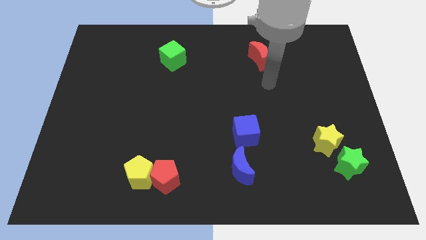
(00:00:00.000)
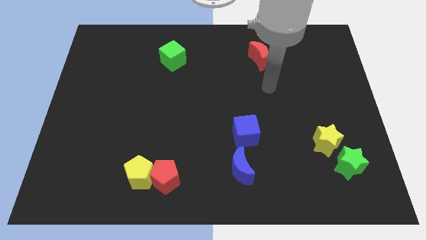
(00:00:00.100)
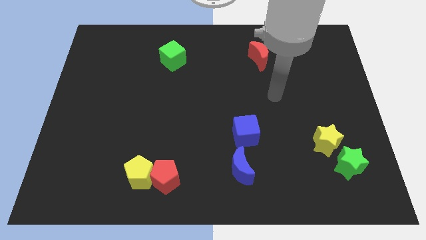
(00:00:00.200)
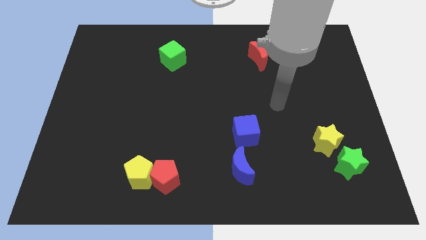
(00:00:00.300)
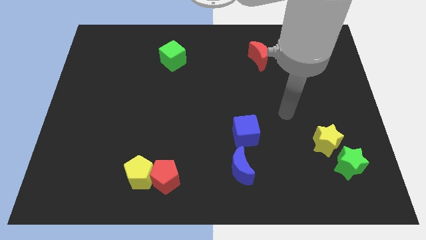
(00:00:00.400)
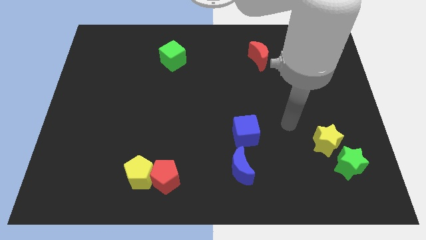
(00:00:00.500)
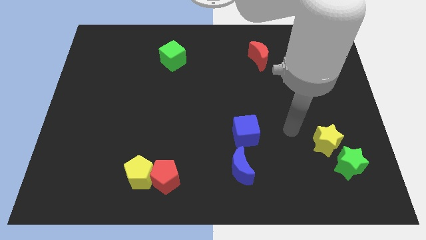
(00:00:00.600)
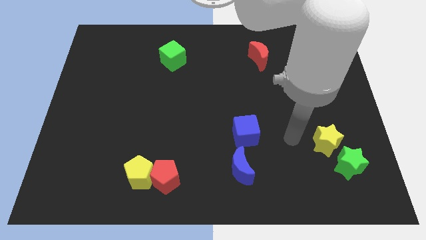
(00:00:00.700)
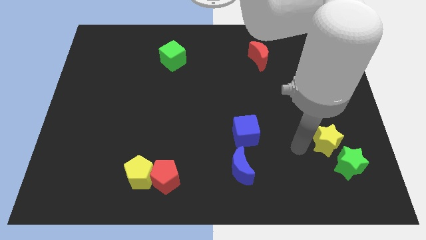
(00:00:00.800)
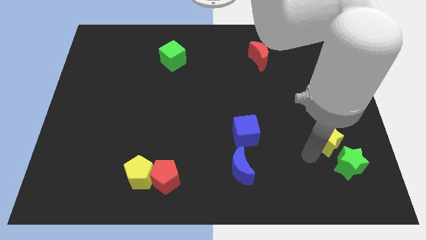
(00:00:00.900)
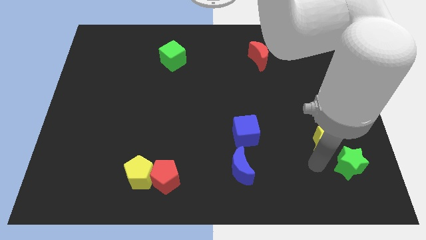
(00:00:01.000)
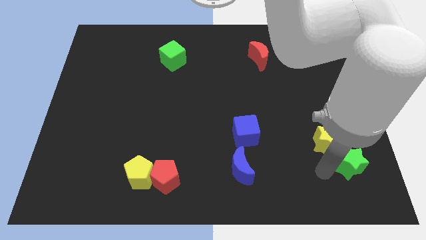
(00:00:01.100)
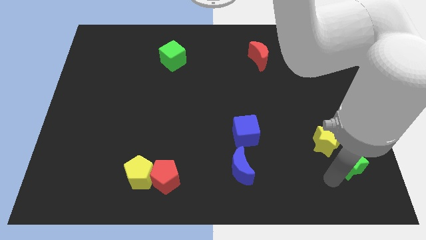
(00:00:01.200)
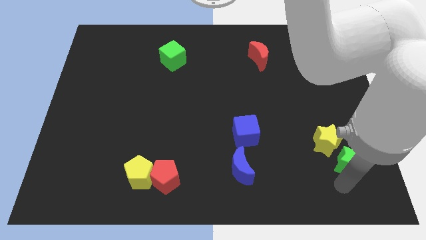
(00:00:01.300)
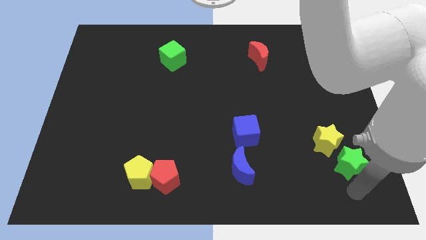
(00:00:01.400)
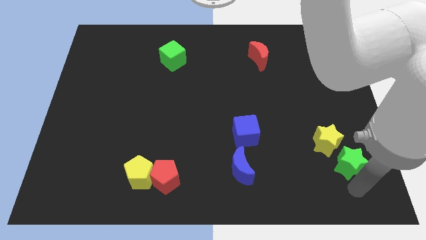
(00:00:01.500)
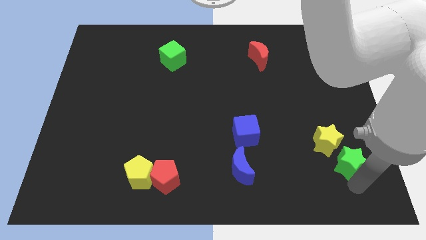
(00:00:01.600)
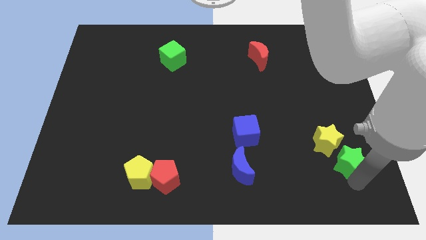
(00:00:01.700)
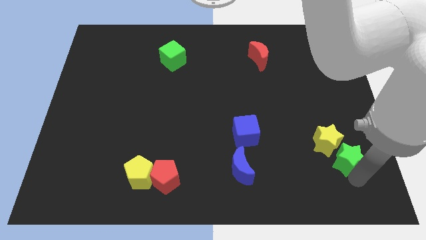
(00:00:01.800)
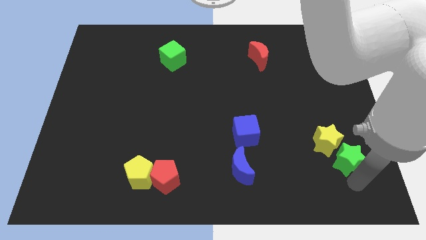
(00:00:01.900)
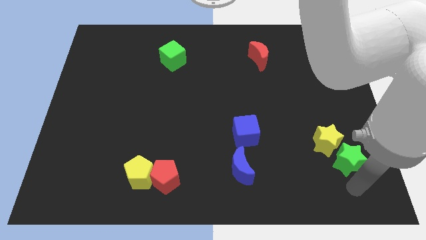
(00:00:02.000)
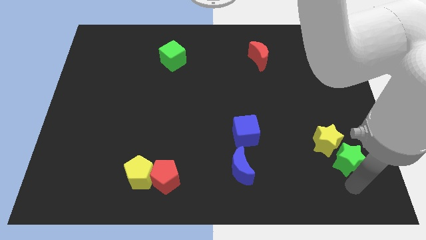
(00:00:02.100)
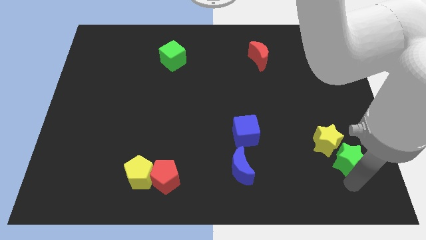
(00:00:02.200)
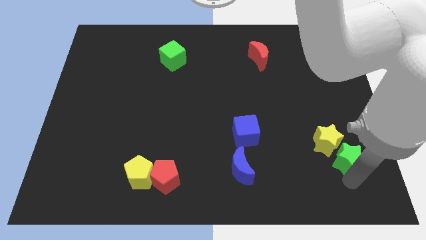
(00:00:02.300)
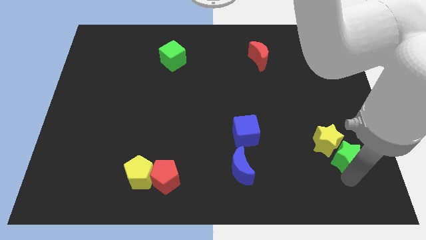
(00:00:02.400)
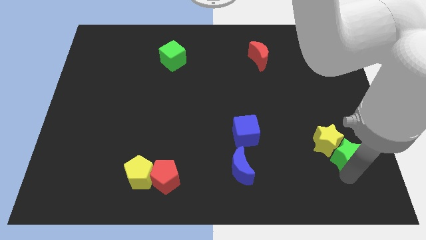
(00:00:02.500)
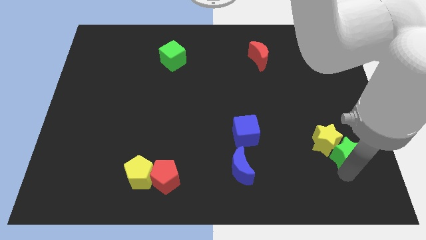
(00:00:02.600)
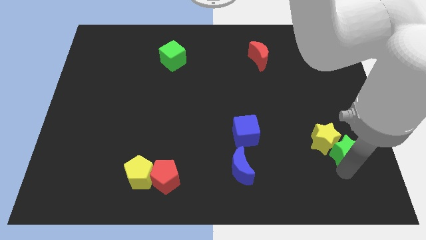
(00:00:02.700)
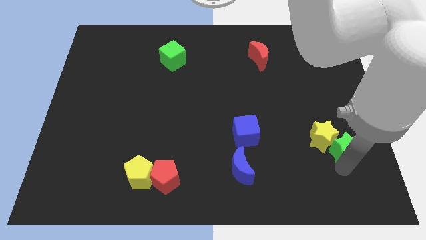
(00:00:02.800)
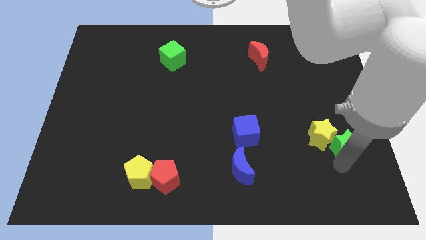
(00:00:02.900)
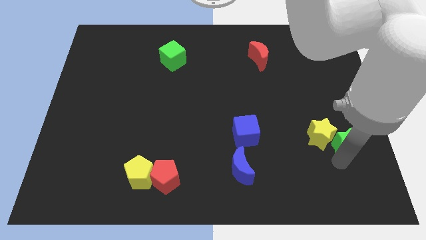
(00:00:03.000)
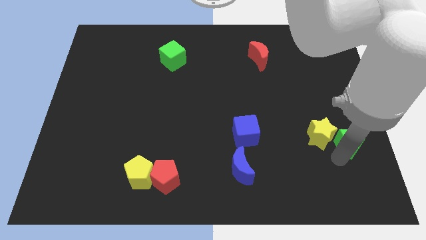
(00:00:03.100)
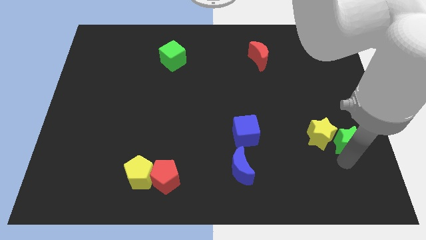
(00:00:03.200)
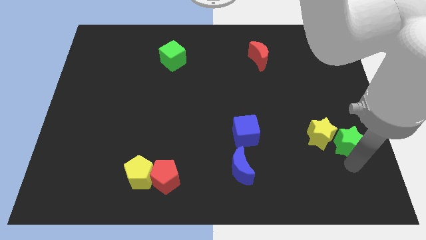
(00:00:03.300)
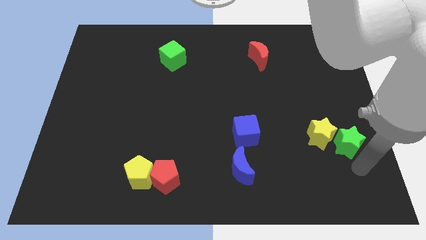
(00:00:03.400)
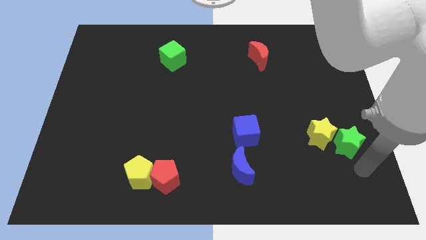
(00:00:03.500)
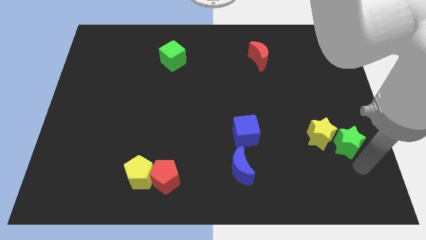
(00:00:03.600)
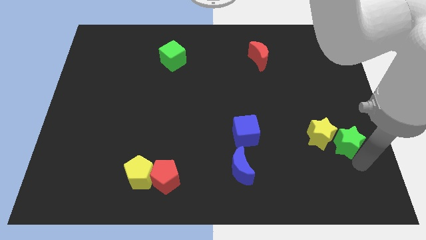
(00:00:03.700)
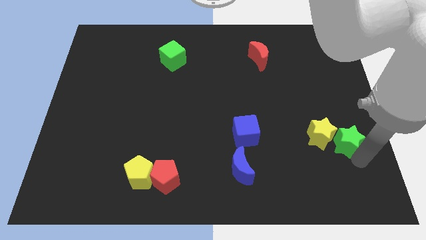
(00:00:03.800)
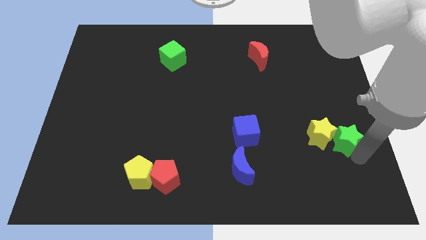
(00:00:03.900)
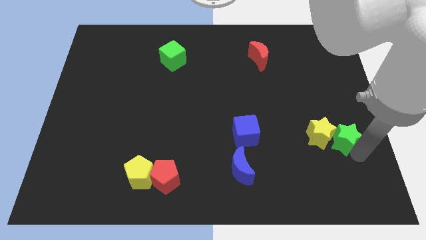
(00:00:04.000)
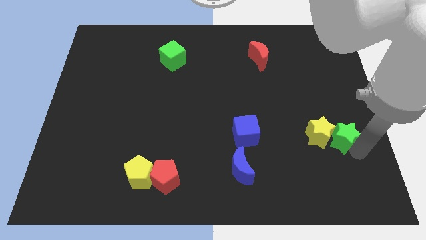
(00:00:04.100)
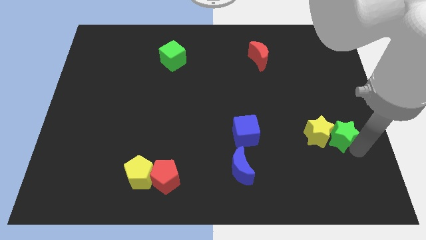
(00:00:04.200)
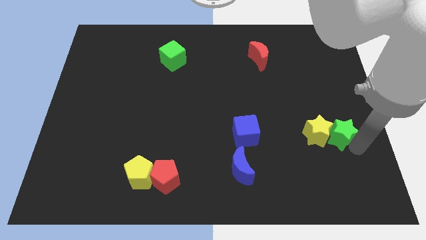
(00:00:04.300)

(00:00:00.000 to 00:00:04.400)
move the green star a little bit upwards

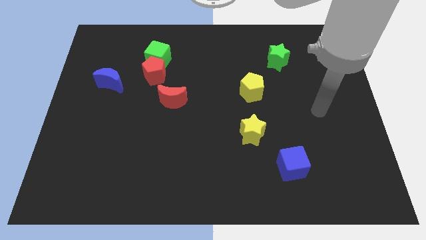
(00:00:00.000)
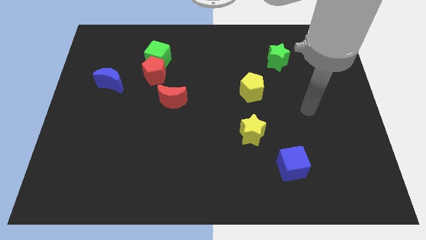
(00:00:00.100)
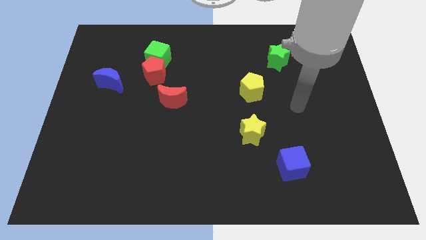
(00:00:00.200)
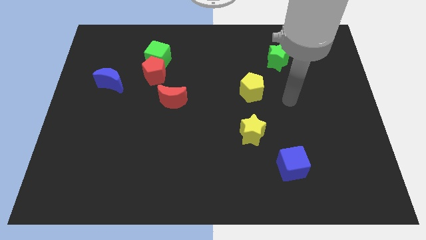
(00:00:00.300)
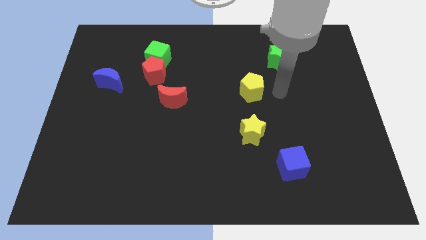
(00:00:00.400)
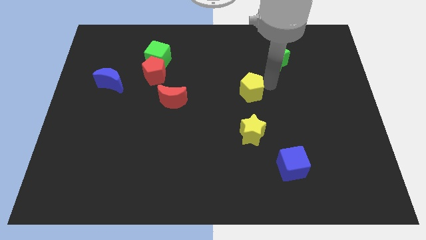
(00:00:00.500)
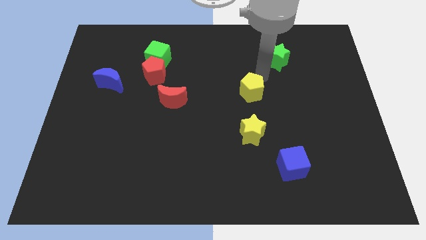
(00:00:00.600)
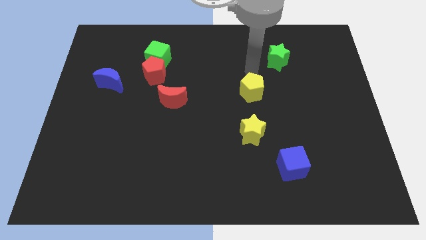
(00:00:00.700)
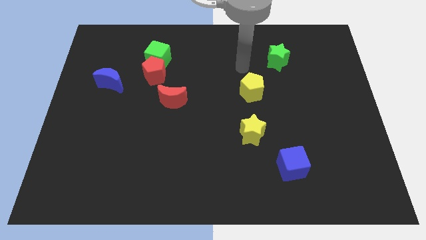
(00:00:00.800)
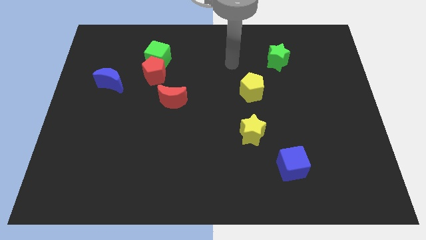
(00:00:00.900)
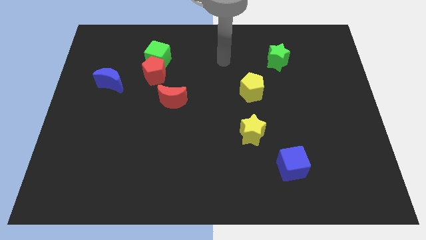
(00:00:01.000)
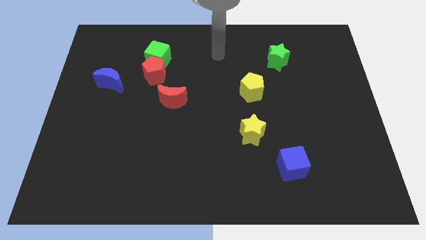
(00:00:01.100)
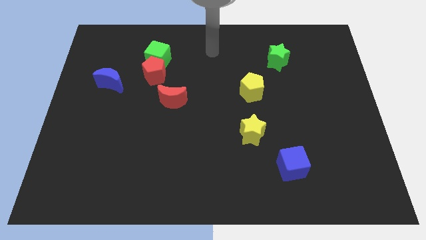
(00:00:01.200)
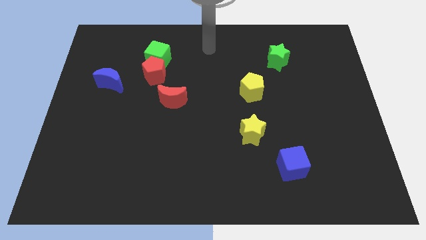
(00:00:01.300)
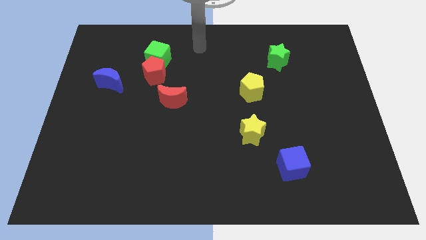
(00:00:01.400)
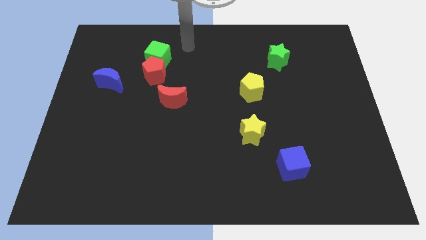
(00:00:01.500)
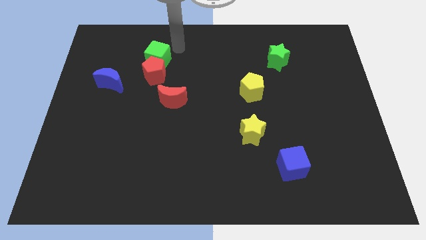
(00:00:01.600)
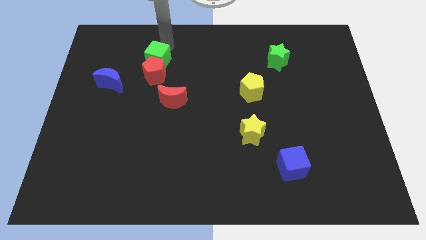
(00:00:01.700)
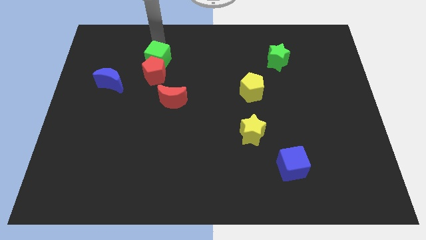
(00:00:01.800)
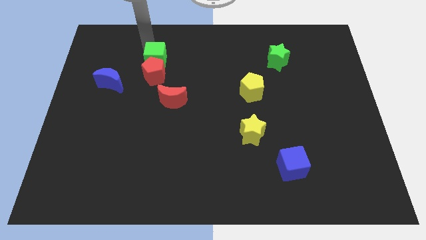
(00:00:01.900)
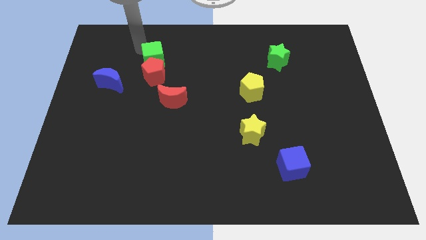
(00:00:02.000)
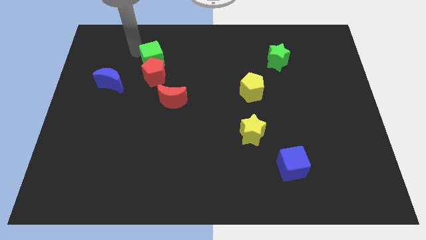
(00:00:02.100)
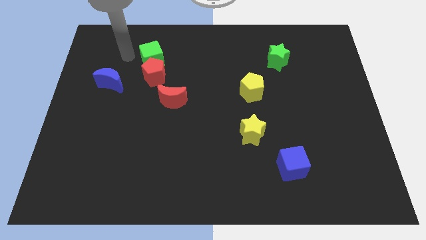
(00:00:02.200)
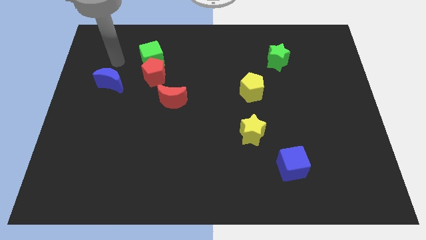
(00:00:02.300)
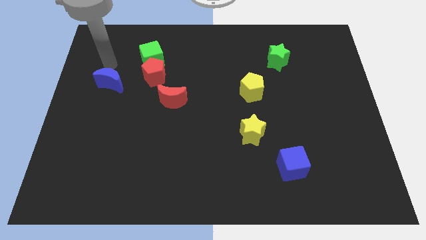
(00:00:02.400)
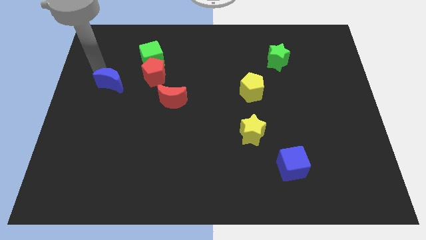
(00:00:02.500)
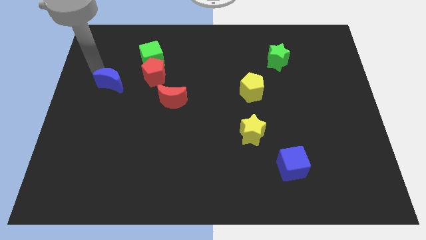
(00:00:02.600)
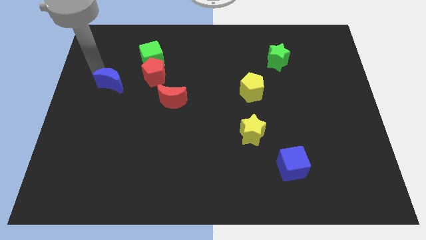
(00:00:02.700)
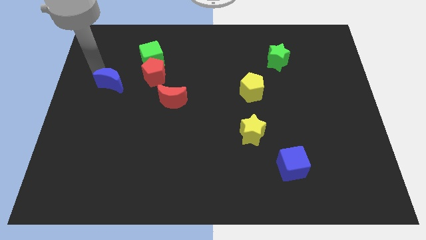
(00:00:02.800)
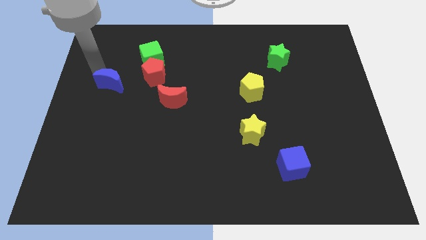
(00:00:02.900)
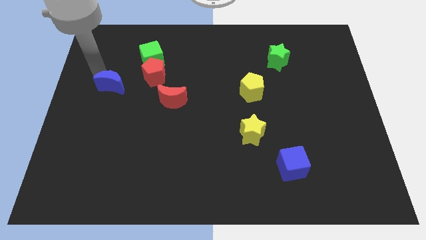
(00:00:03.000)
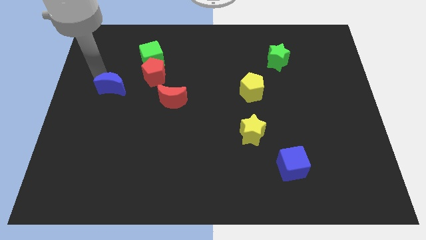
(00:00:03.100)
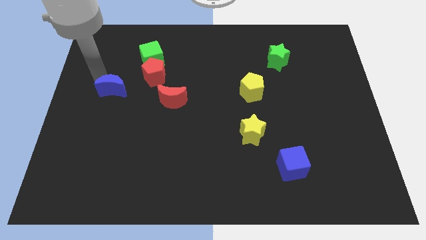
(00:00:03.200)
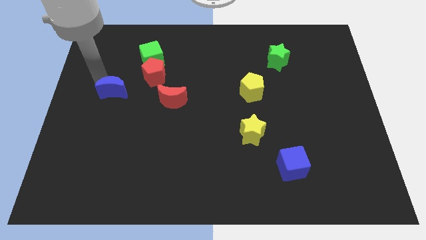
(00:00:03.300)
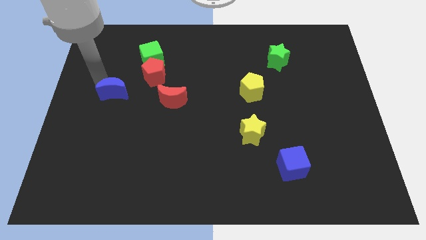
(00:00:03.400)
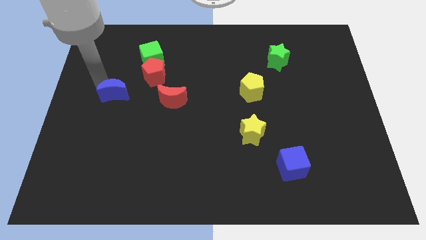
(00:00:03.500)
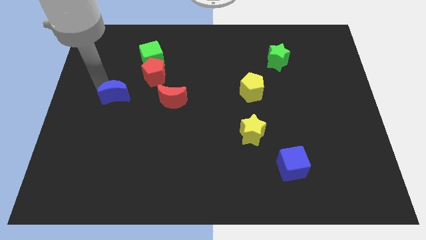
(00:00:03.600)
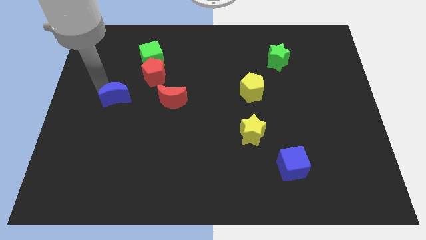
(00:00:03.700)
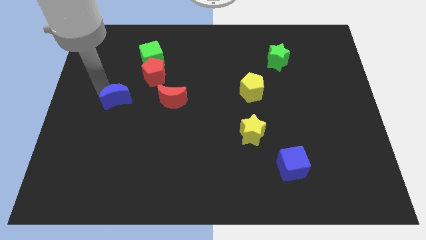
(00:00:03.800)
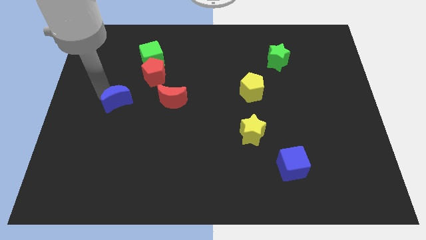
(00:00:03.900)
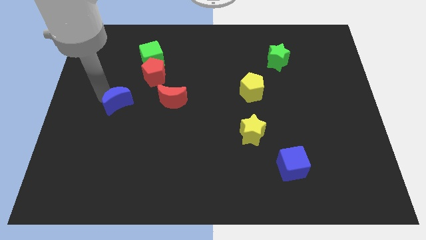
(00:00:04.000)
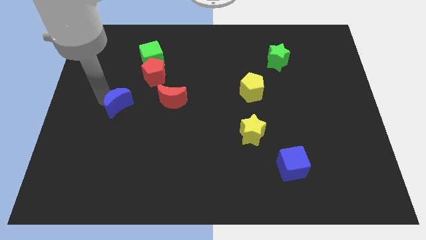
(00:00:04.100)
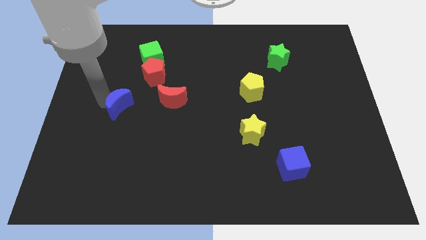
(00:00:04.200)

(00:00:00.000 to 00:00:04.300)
push the blue moon downwards and right slightly
